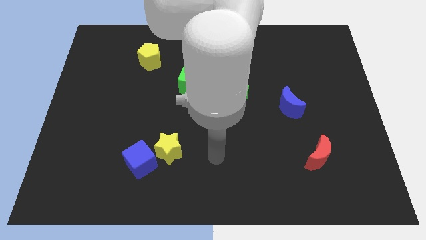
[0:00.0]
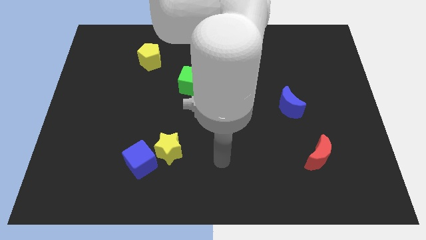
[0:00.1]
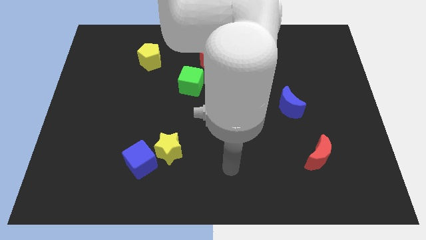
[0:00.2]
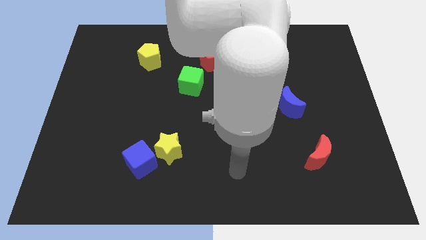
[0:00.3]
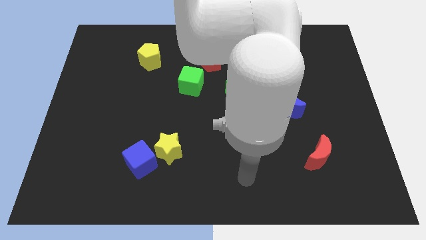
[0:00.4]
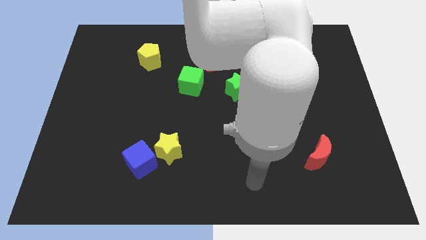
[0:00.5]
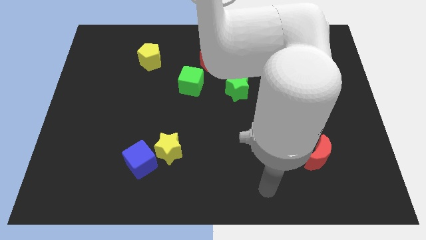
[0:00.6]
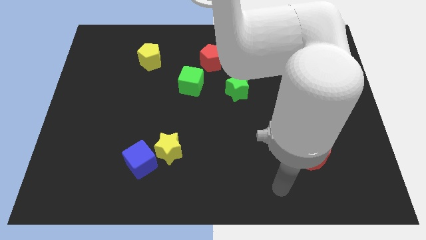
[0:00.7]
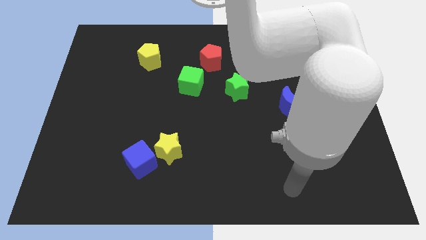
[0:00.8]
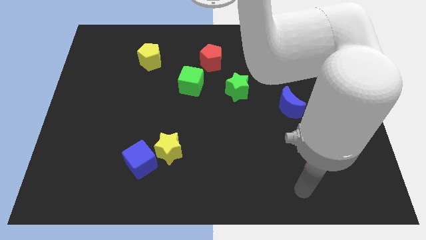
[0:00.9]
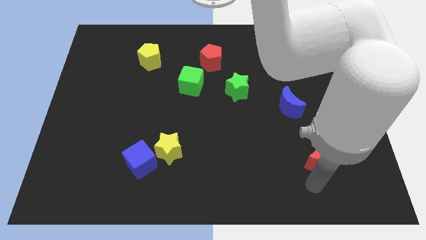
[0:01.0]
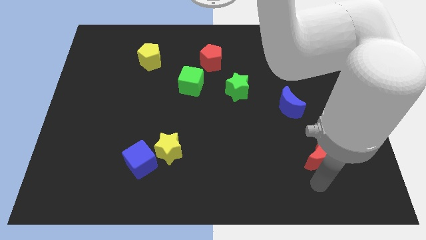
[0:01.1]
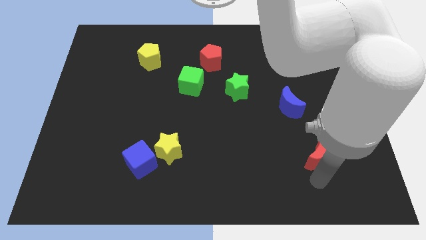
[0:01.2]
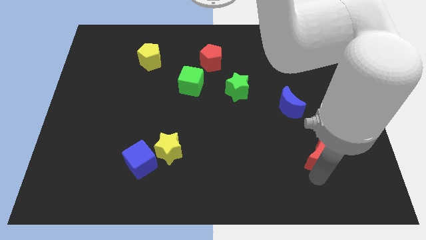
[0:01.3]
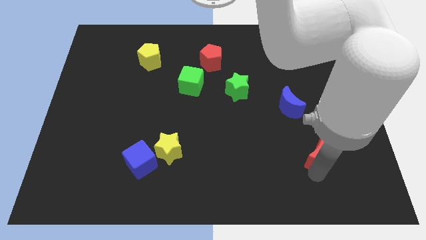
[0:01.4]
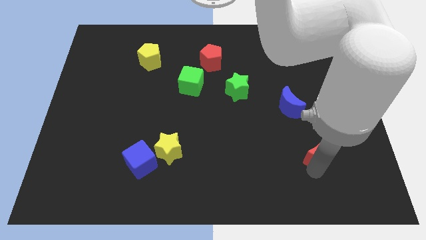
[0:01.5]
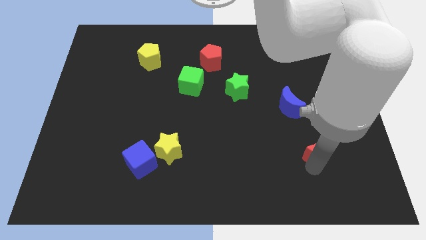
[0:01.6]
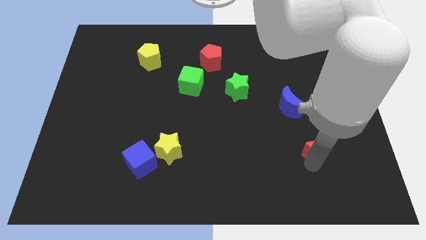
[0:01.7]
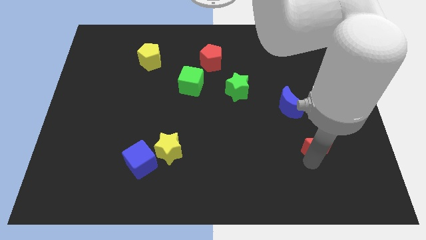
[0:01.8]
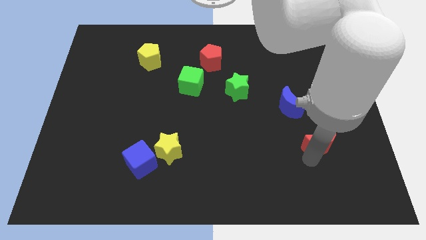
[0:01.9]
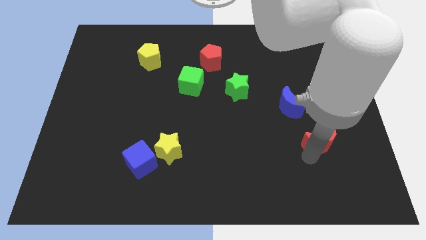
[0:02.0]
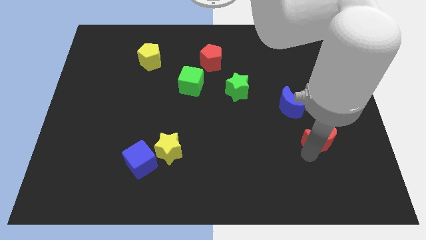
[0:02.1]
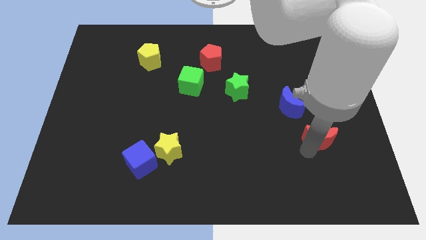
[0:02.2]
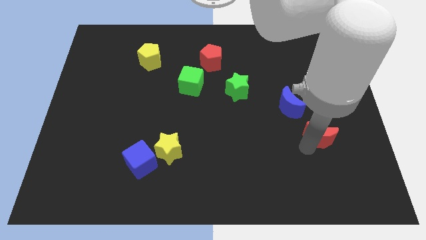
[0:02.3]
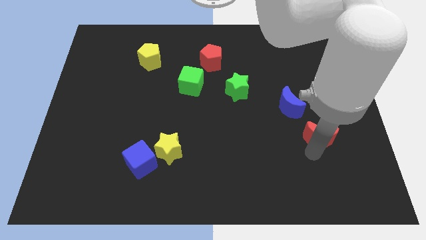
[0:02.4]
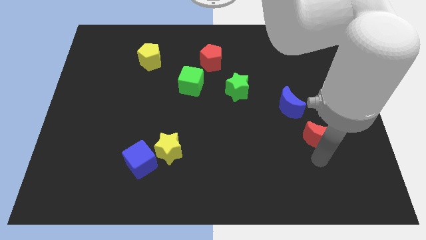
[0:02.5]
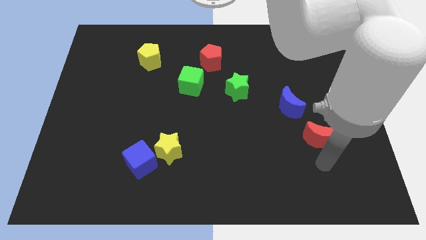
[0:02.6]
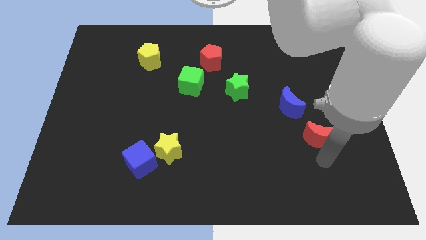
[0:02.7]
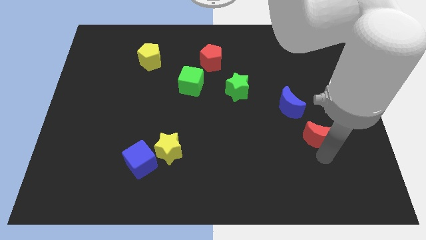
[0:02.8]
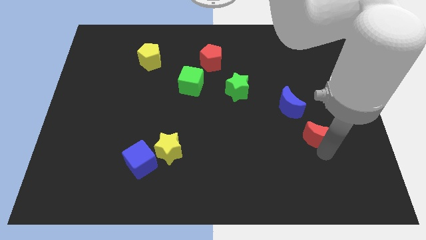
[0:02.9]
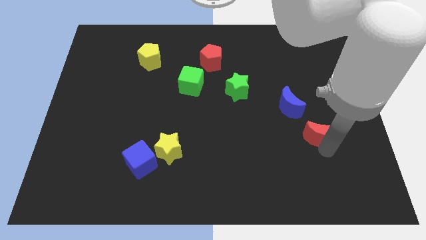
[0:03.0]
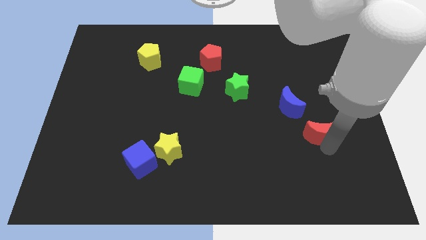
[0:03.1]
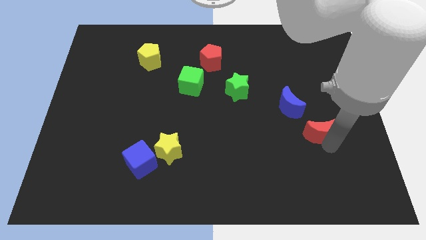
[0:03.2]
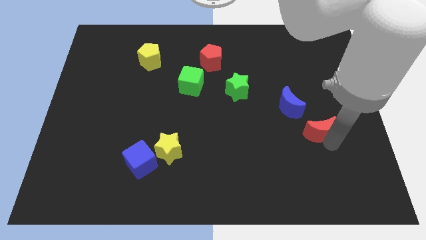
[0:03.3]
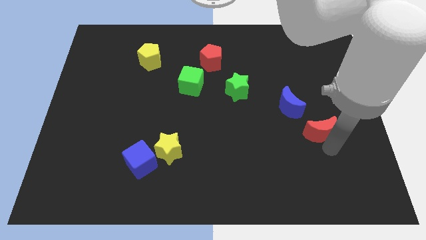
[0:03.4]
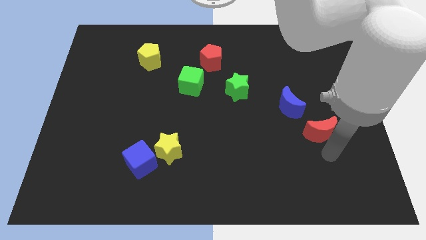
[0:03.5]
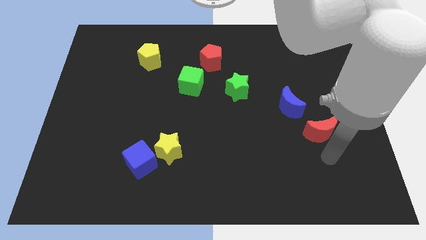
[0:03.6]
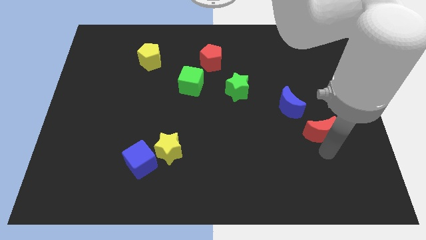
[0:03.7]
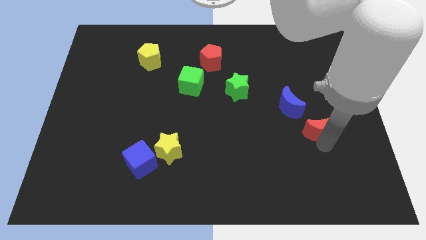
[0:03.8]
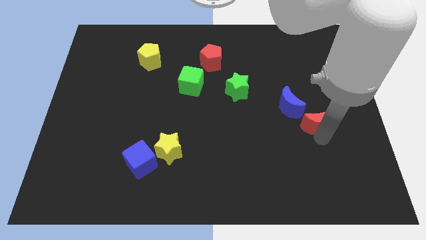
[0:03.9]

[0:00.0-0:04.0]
push the red moon a bit upwards

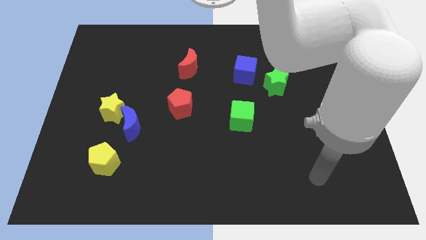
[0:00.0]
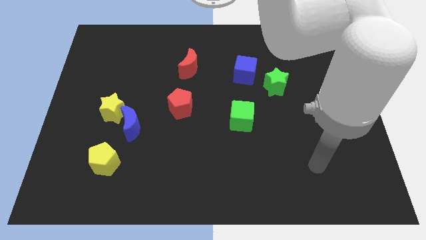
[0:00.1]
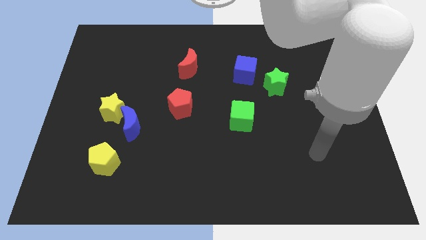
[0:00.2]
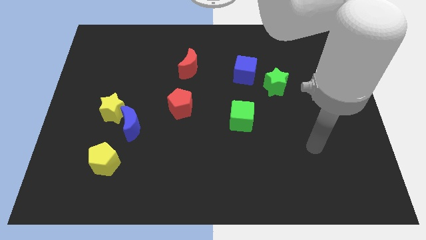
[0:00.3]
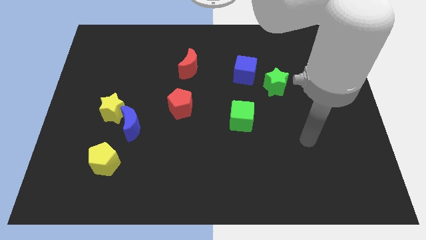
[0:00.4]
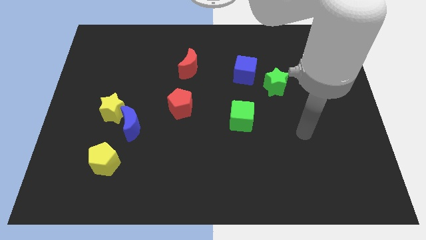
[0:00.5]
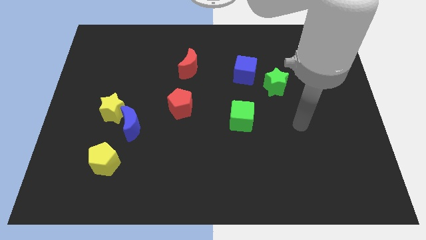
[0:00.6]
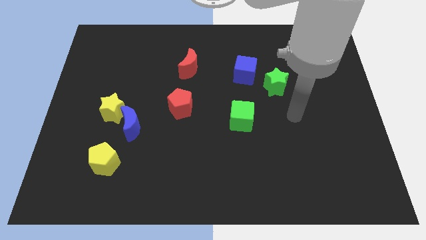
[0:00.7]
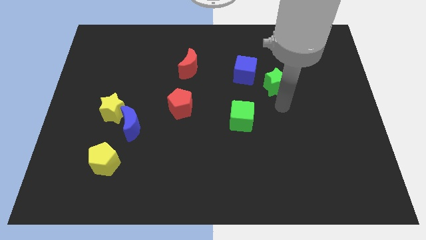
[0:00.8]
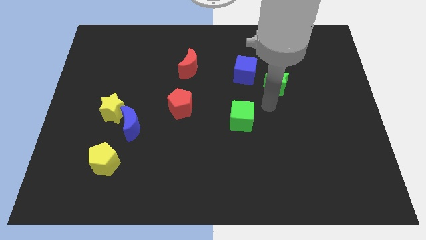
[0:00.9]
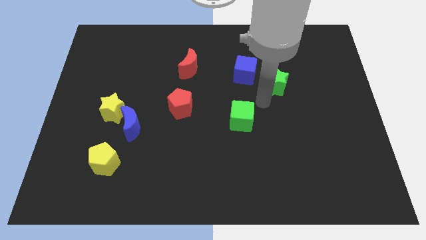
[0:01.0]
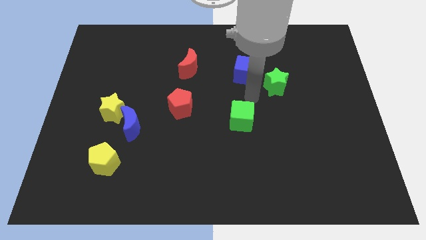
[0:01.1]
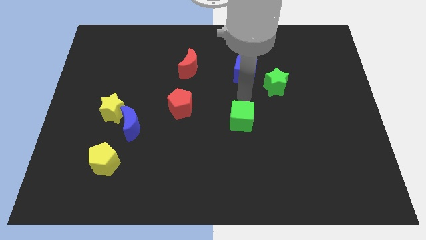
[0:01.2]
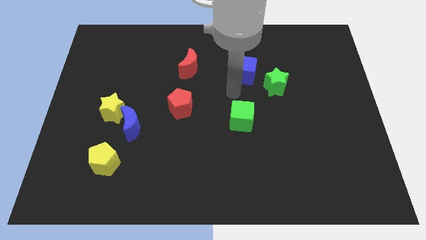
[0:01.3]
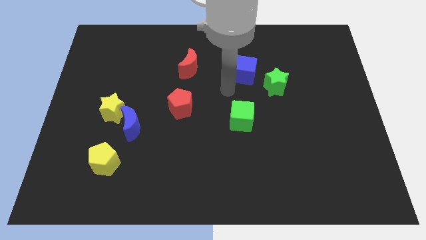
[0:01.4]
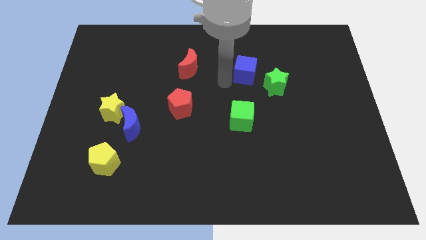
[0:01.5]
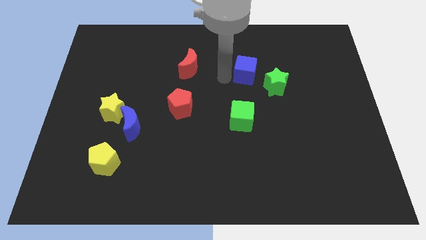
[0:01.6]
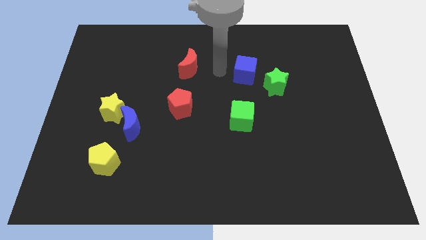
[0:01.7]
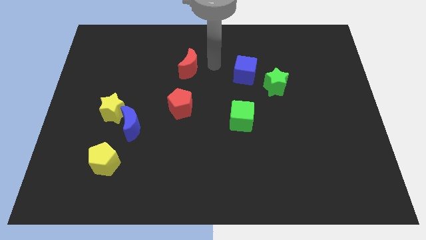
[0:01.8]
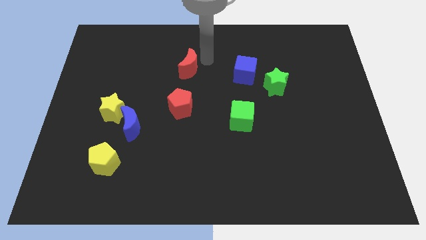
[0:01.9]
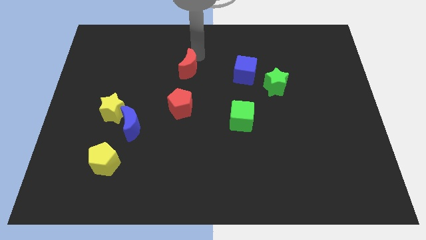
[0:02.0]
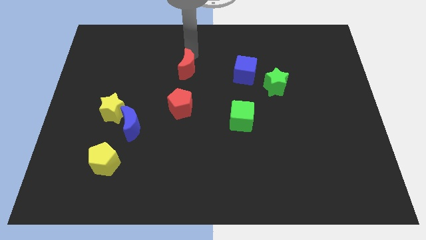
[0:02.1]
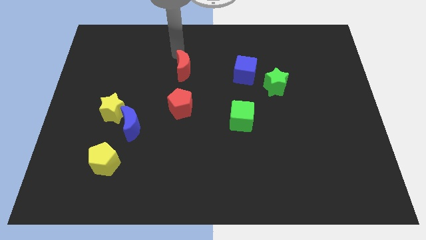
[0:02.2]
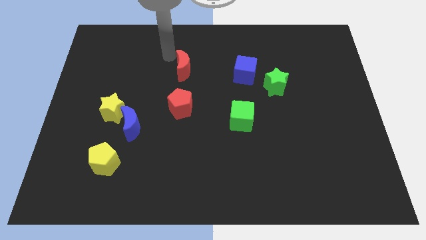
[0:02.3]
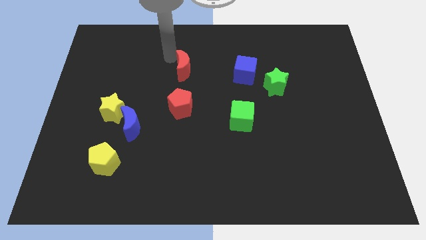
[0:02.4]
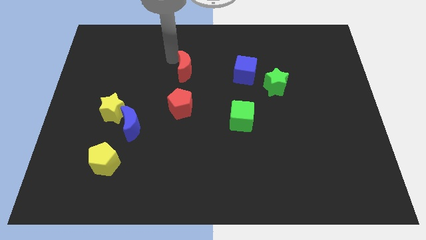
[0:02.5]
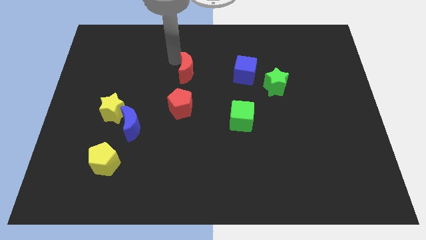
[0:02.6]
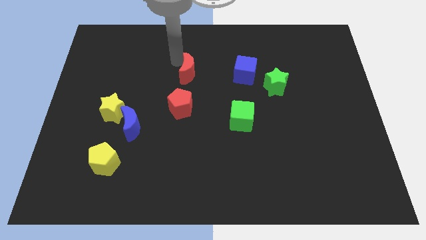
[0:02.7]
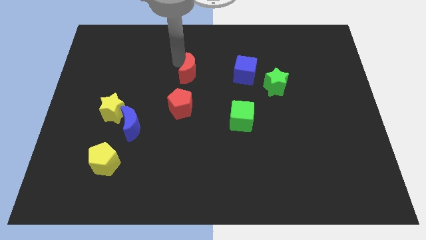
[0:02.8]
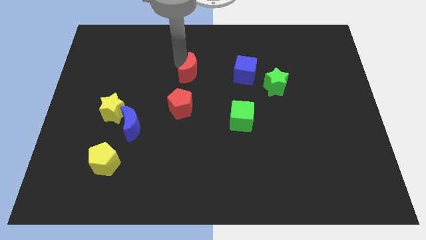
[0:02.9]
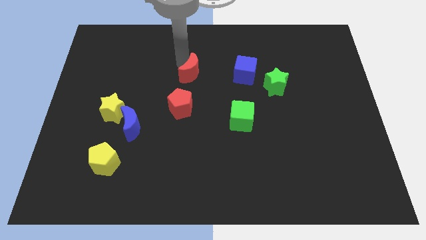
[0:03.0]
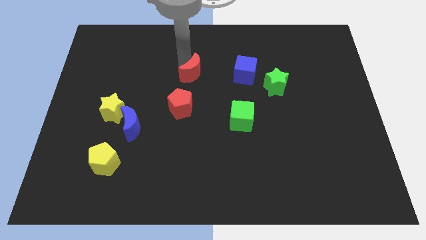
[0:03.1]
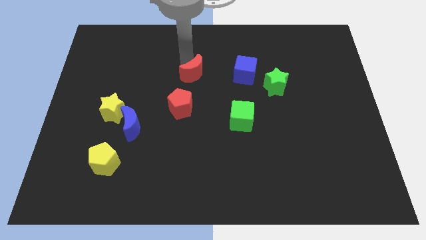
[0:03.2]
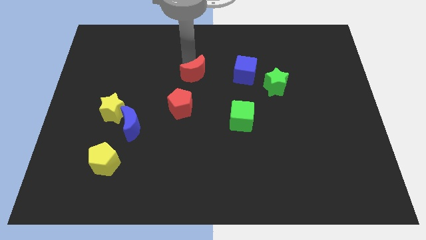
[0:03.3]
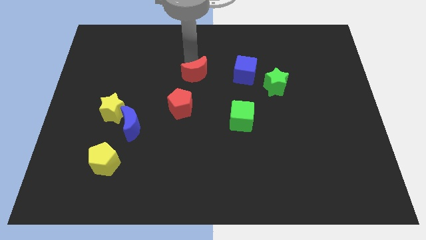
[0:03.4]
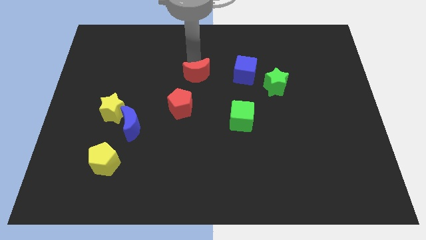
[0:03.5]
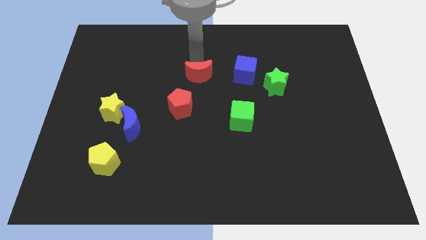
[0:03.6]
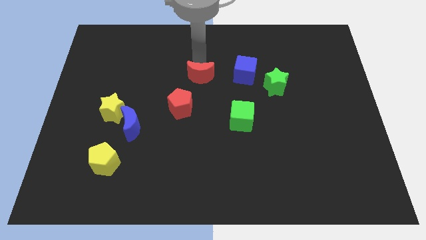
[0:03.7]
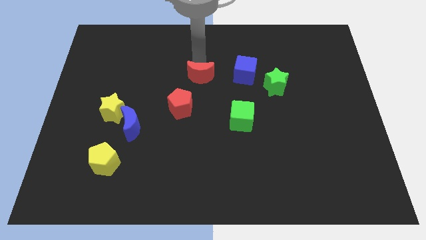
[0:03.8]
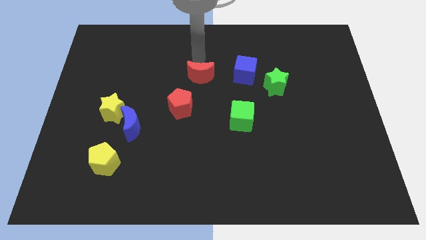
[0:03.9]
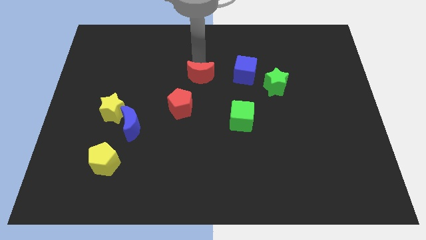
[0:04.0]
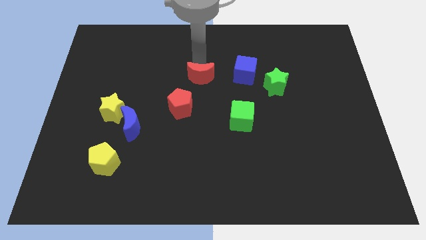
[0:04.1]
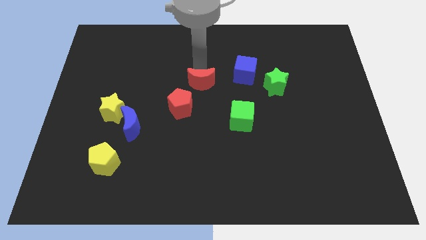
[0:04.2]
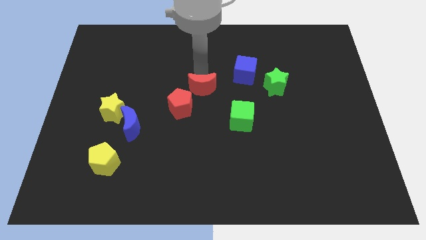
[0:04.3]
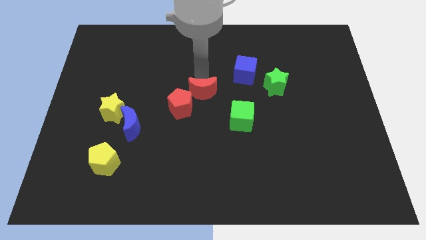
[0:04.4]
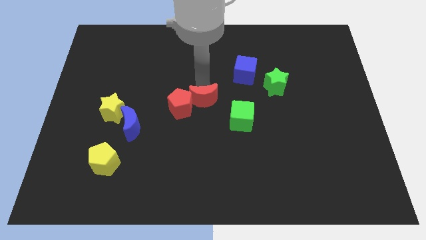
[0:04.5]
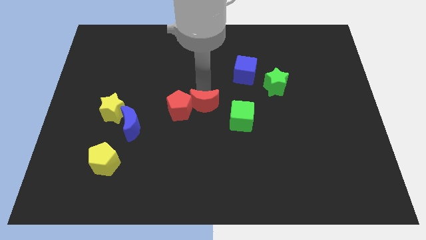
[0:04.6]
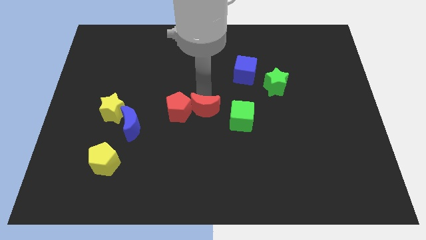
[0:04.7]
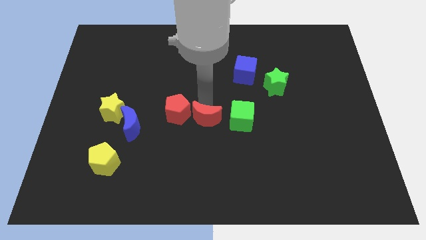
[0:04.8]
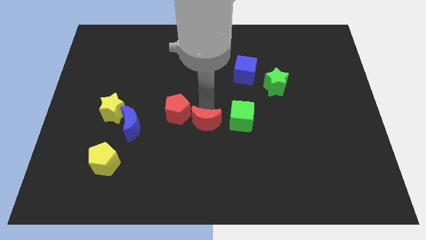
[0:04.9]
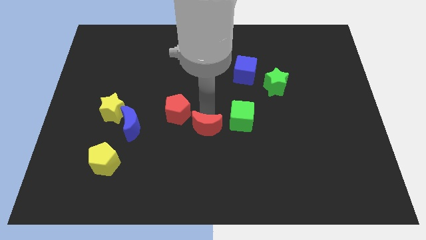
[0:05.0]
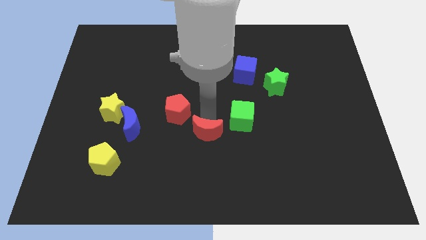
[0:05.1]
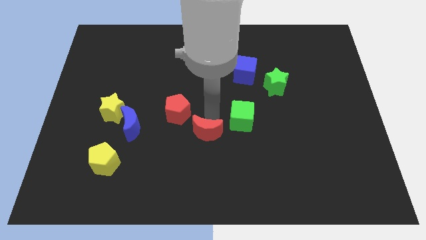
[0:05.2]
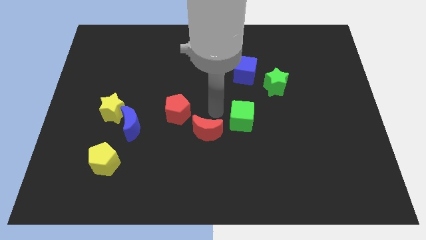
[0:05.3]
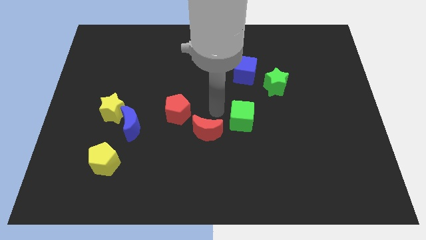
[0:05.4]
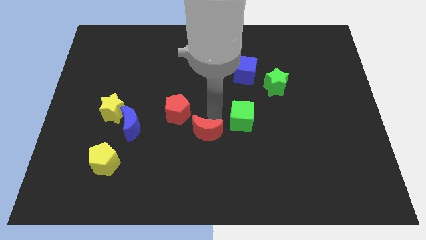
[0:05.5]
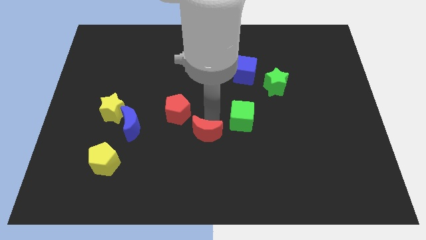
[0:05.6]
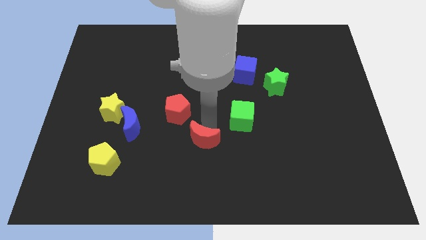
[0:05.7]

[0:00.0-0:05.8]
push the red moon downwards
